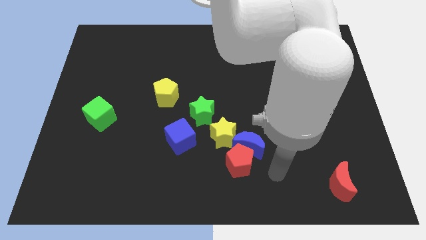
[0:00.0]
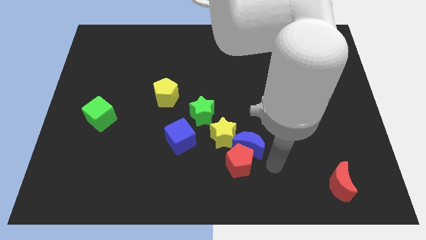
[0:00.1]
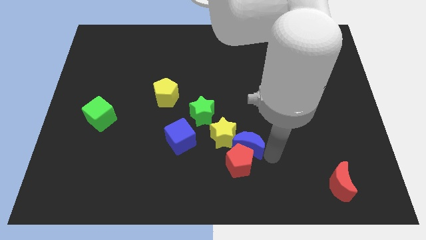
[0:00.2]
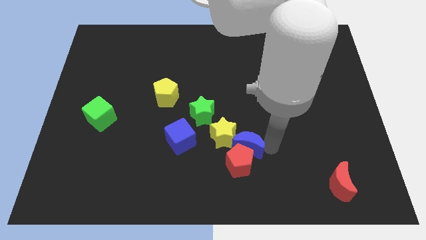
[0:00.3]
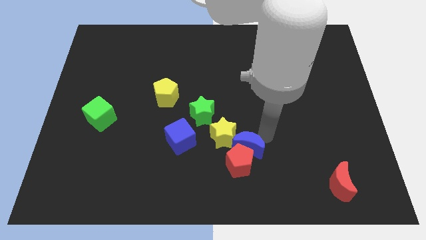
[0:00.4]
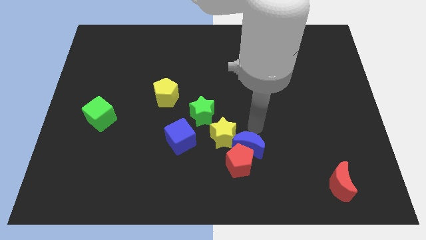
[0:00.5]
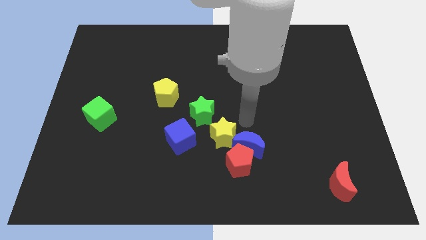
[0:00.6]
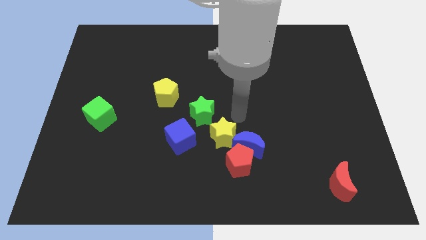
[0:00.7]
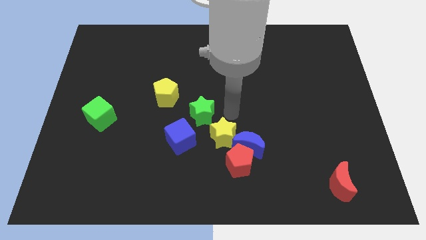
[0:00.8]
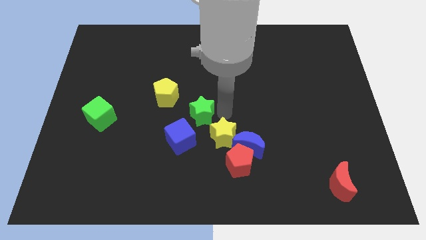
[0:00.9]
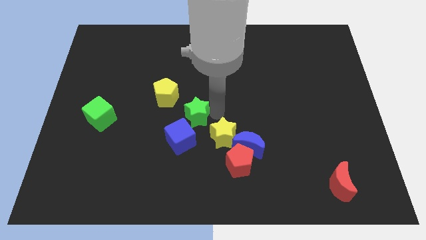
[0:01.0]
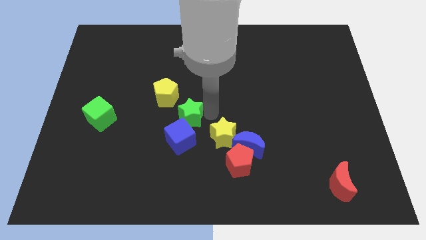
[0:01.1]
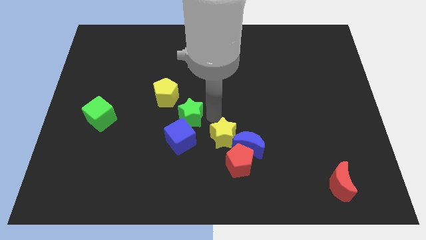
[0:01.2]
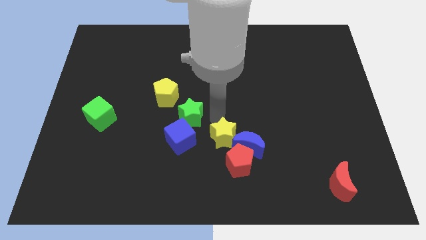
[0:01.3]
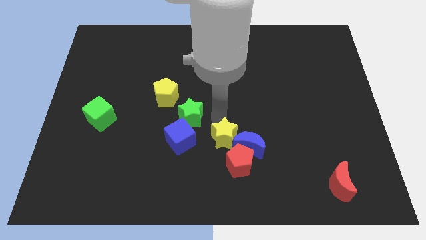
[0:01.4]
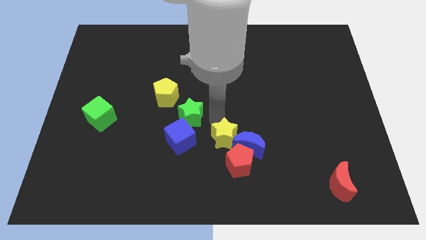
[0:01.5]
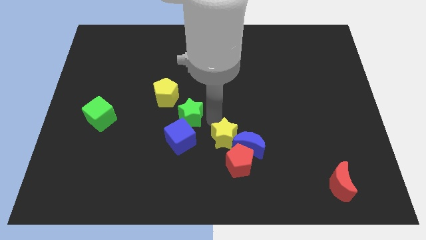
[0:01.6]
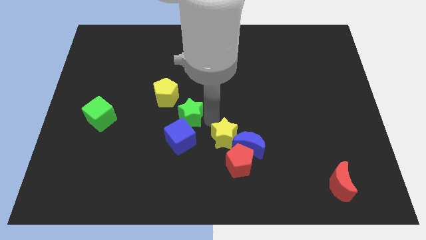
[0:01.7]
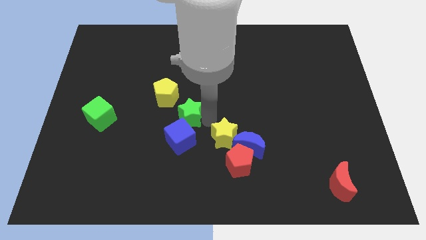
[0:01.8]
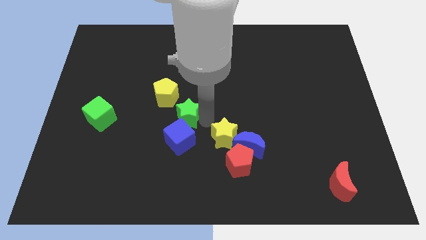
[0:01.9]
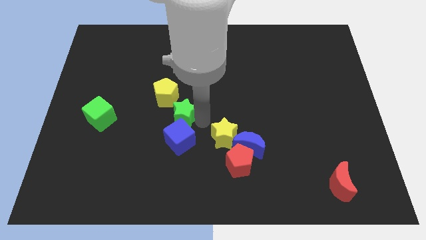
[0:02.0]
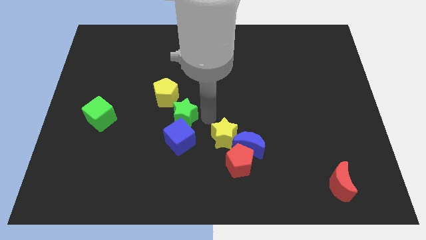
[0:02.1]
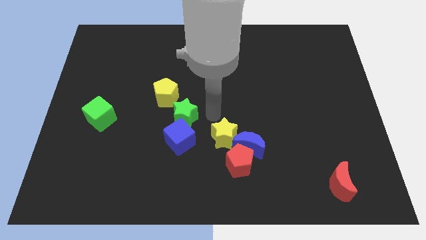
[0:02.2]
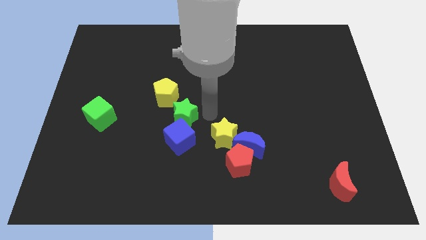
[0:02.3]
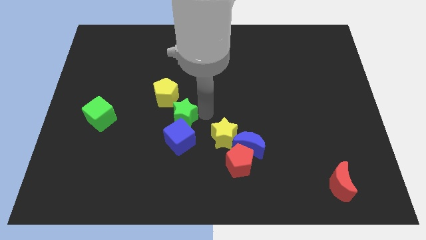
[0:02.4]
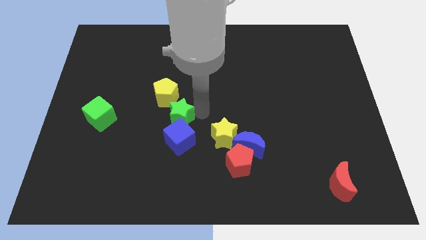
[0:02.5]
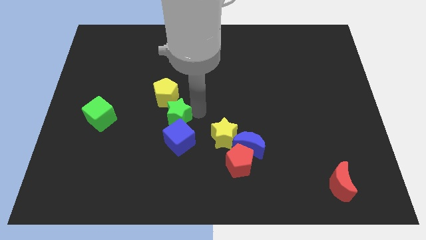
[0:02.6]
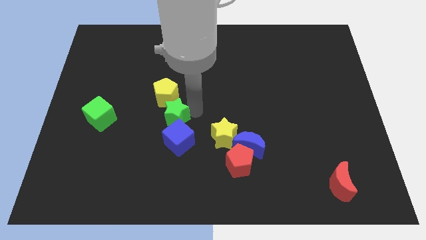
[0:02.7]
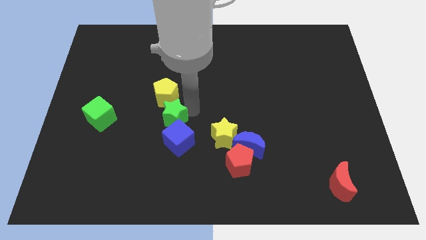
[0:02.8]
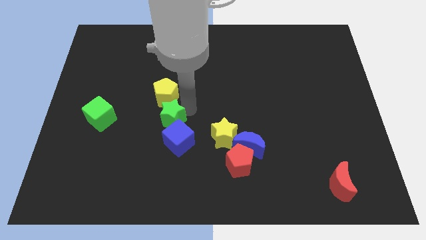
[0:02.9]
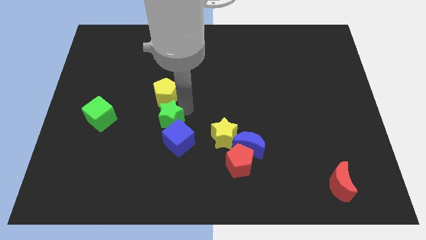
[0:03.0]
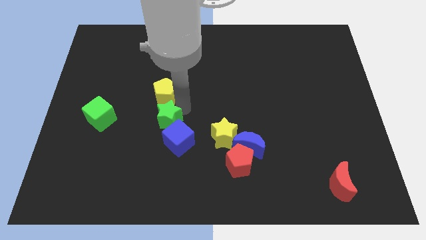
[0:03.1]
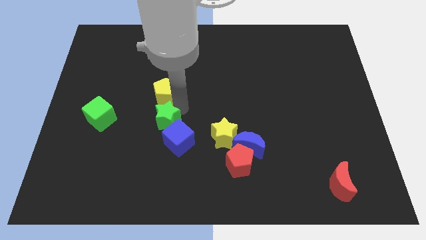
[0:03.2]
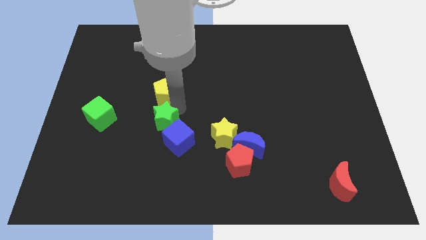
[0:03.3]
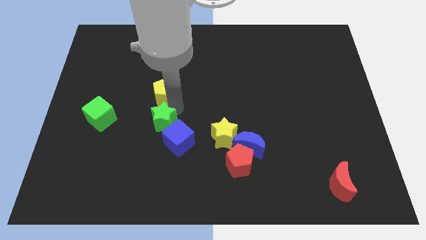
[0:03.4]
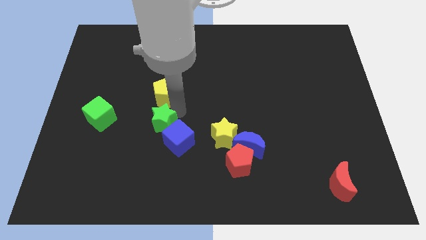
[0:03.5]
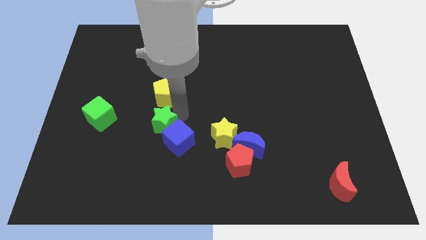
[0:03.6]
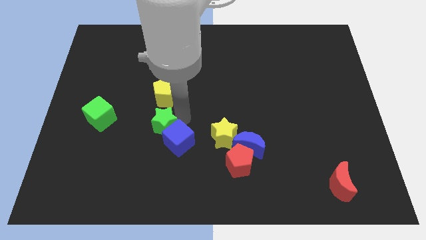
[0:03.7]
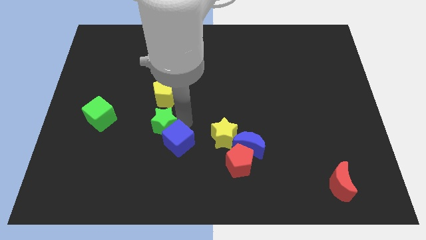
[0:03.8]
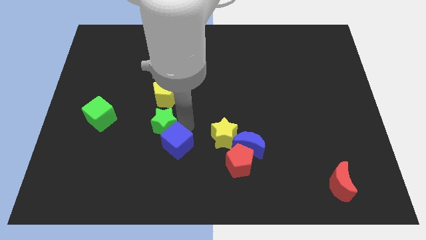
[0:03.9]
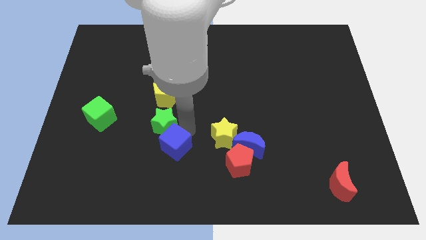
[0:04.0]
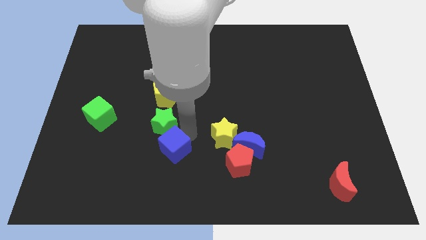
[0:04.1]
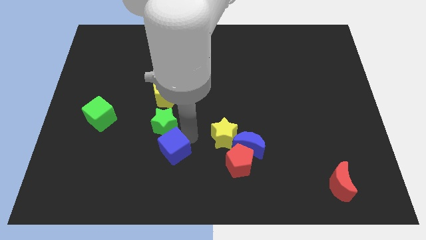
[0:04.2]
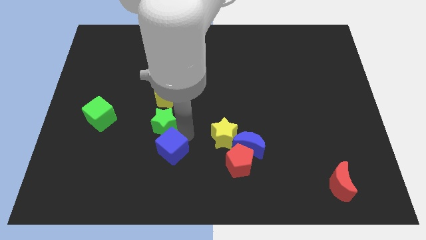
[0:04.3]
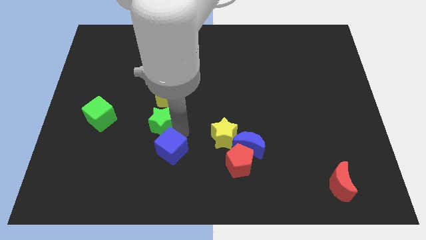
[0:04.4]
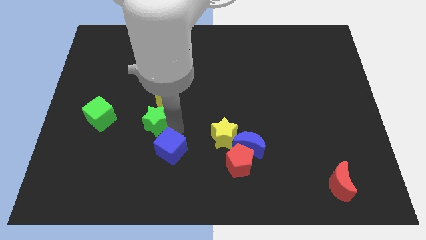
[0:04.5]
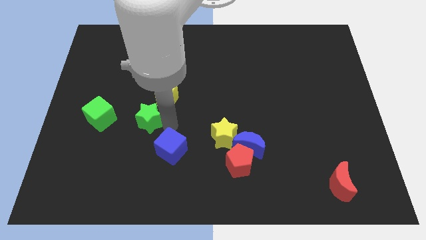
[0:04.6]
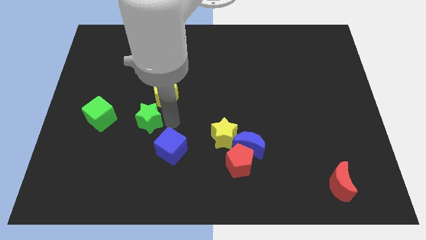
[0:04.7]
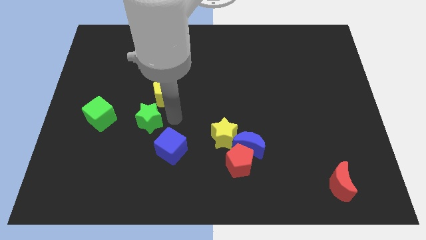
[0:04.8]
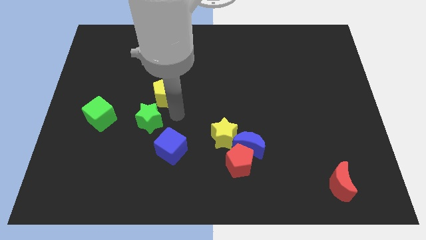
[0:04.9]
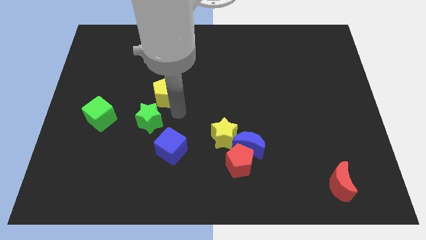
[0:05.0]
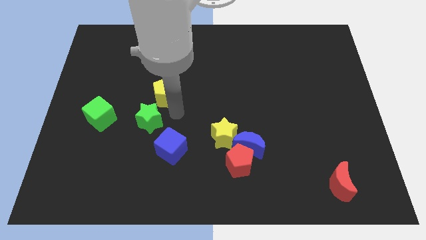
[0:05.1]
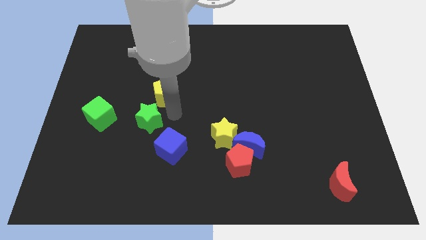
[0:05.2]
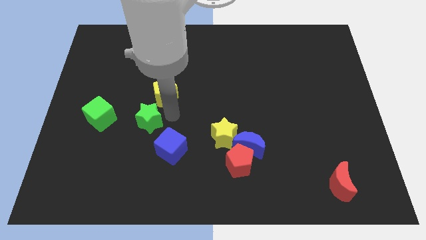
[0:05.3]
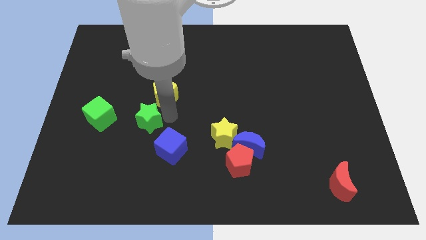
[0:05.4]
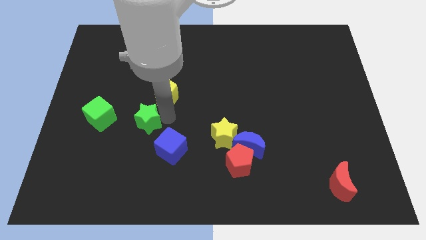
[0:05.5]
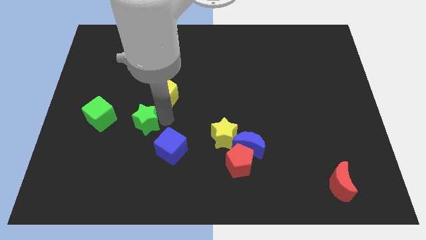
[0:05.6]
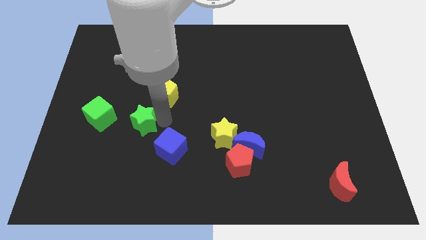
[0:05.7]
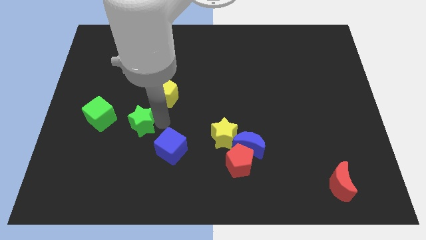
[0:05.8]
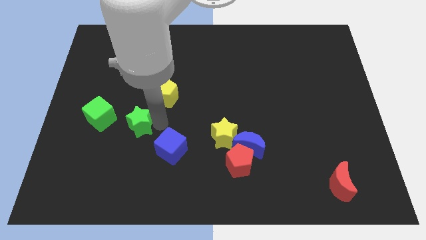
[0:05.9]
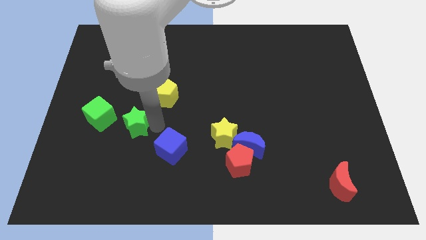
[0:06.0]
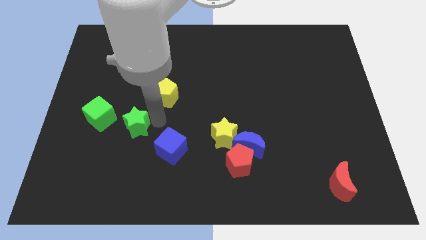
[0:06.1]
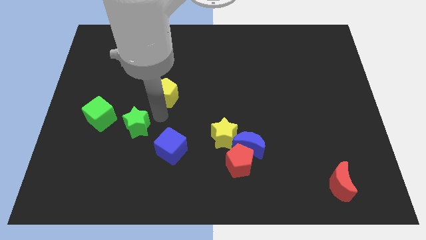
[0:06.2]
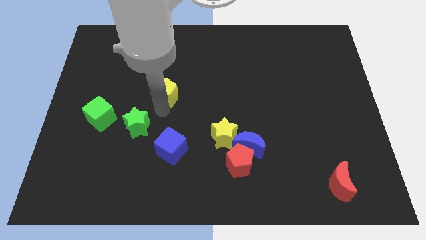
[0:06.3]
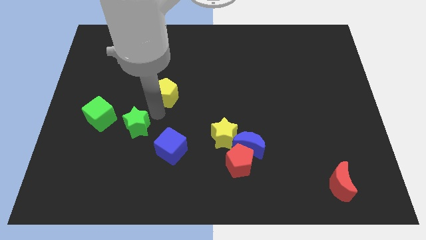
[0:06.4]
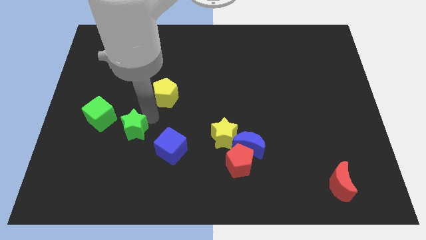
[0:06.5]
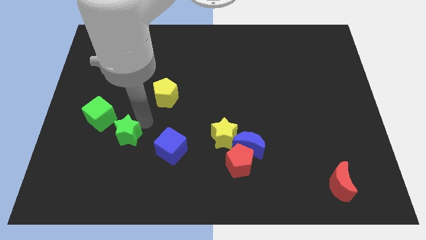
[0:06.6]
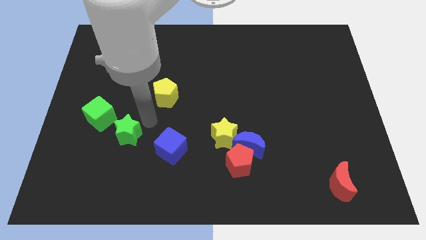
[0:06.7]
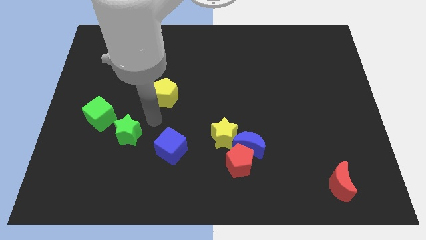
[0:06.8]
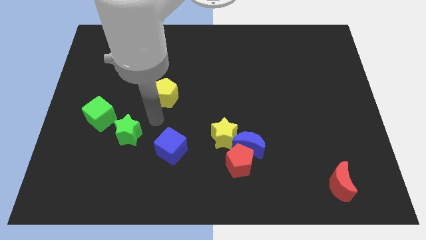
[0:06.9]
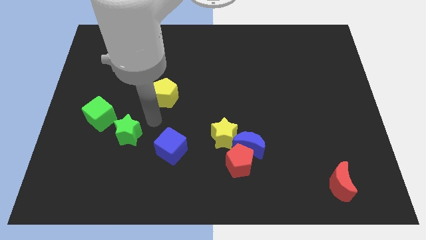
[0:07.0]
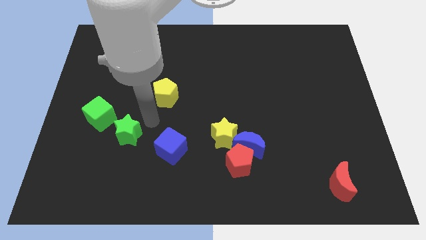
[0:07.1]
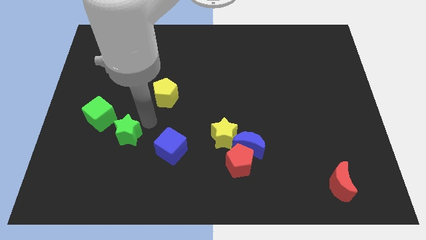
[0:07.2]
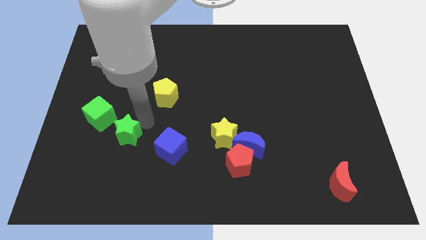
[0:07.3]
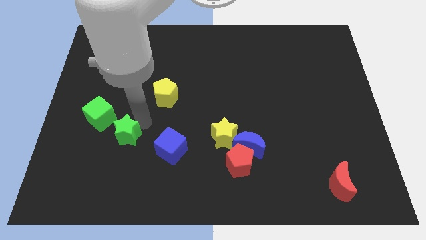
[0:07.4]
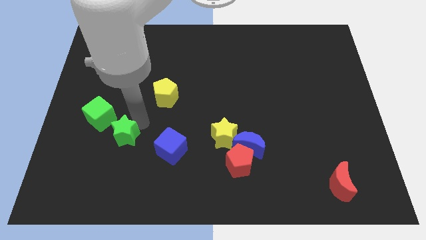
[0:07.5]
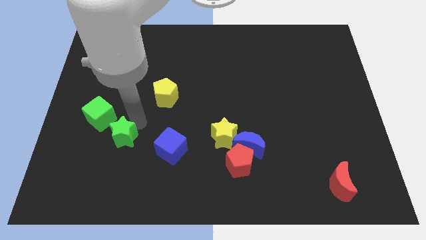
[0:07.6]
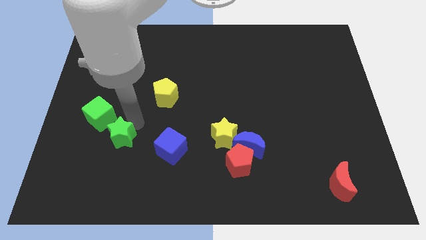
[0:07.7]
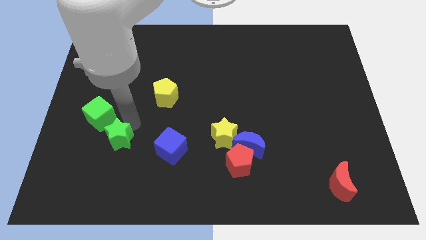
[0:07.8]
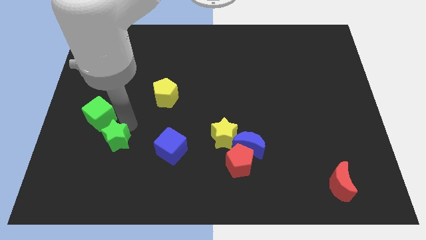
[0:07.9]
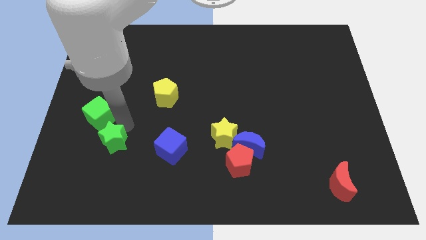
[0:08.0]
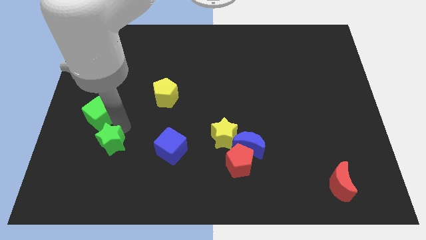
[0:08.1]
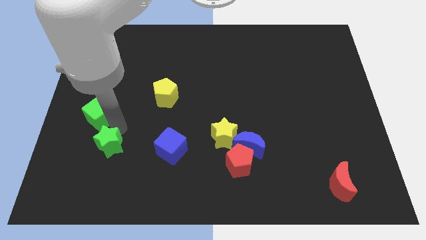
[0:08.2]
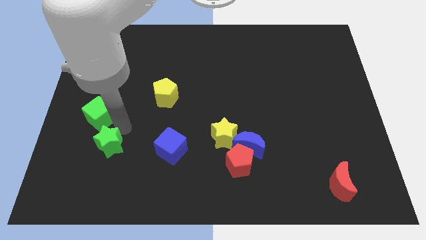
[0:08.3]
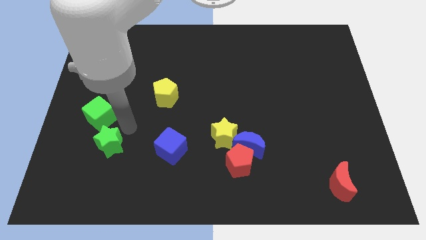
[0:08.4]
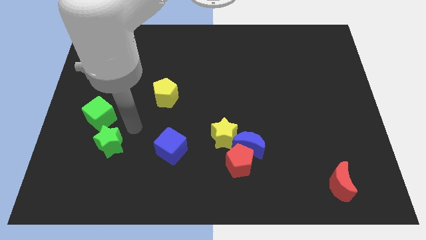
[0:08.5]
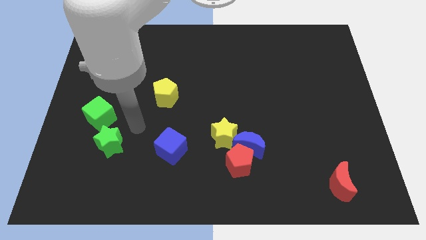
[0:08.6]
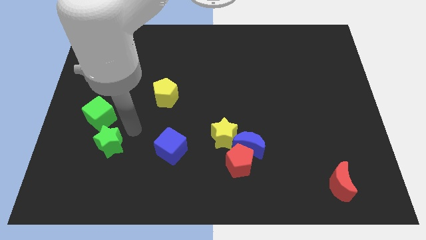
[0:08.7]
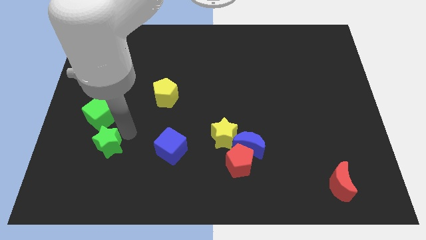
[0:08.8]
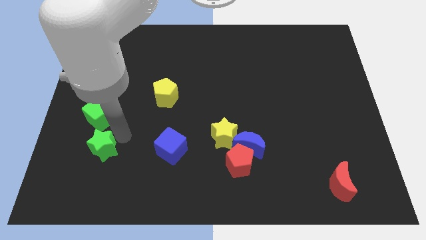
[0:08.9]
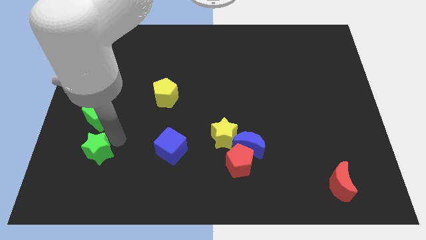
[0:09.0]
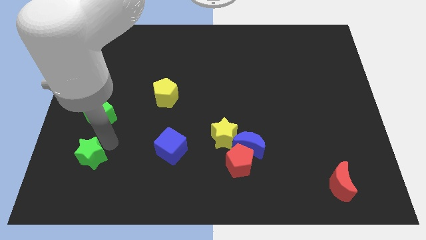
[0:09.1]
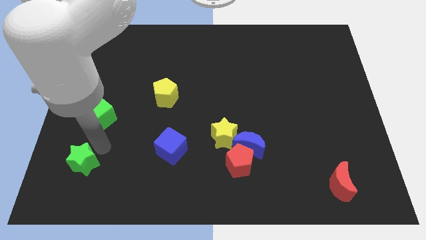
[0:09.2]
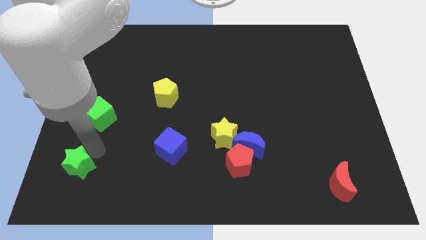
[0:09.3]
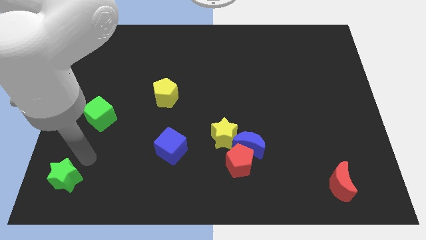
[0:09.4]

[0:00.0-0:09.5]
slide the green star to the bottom left corner
